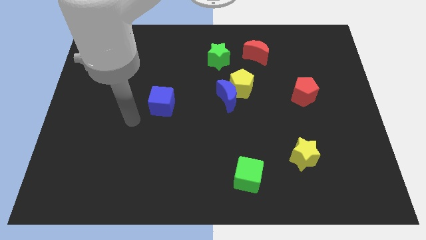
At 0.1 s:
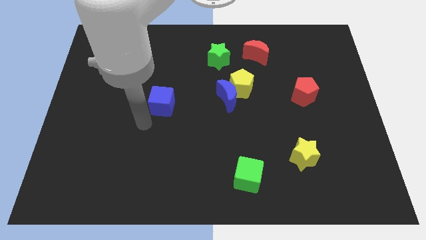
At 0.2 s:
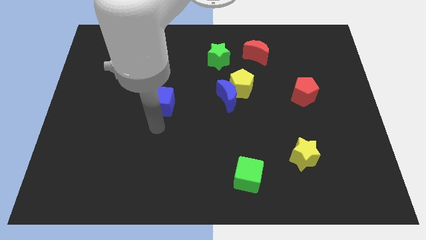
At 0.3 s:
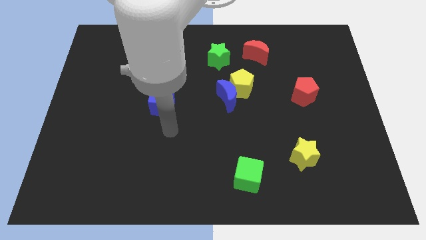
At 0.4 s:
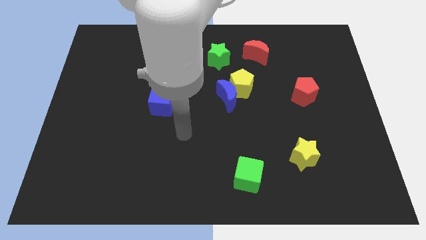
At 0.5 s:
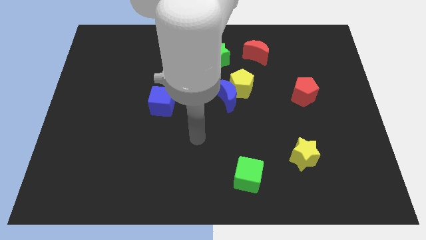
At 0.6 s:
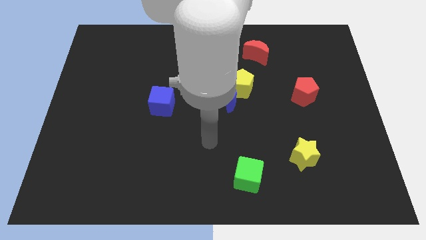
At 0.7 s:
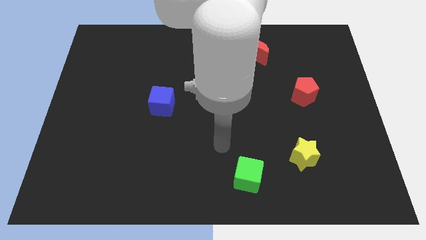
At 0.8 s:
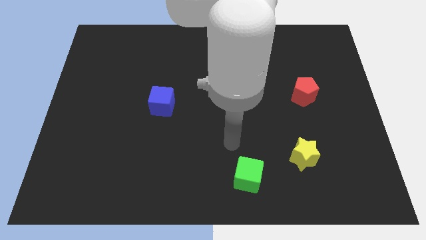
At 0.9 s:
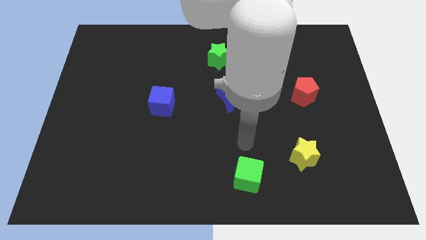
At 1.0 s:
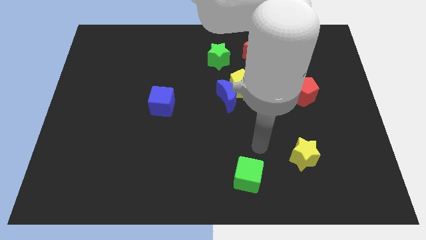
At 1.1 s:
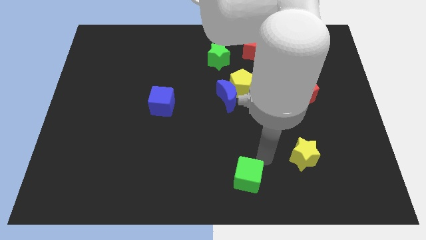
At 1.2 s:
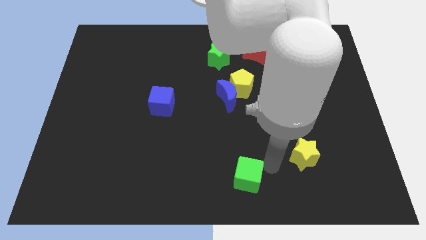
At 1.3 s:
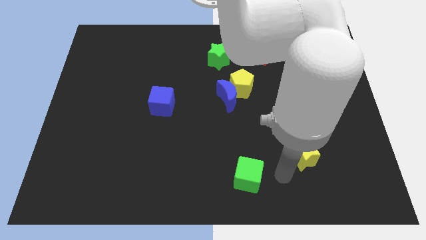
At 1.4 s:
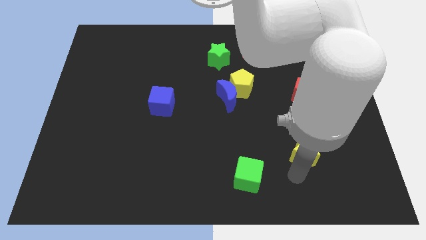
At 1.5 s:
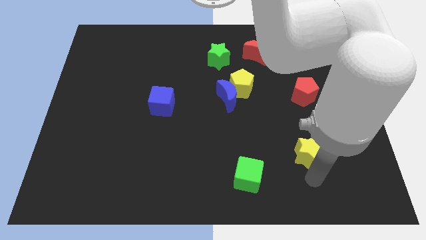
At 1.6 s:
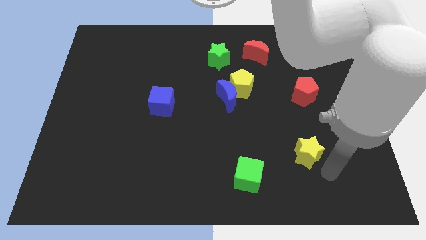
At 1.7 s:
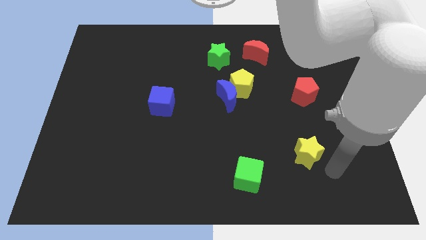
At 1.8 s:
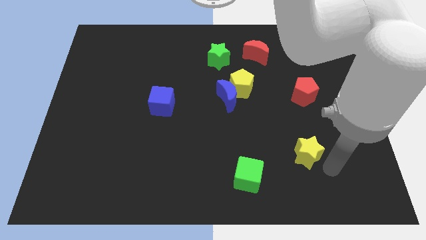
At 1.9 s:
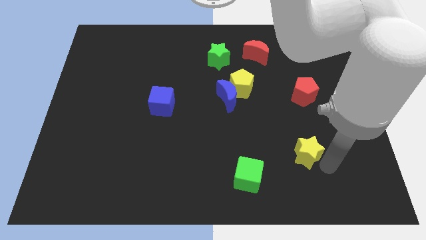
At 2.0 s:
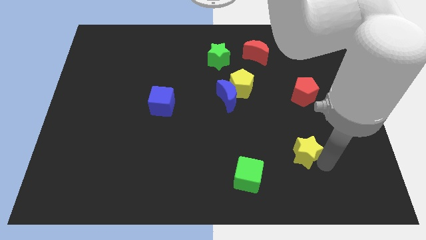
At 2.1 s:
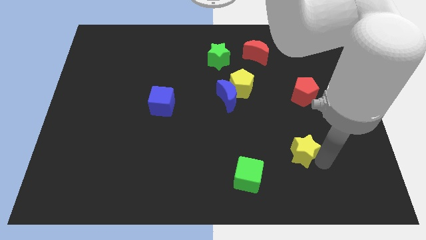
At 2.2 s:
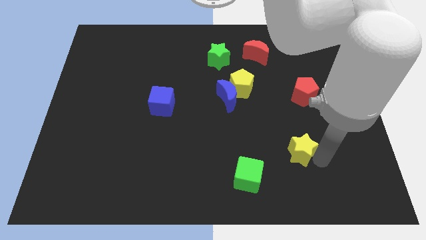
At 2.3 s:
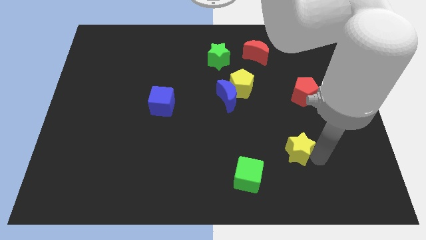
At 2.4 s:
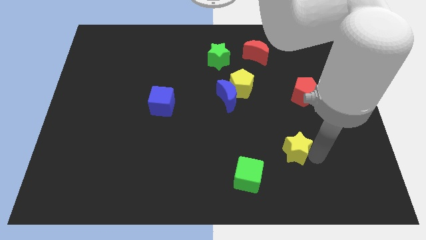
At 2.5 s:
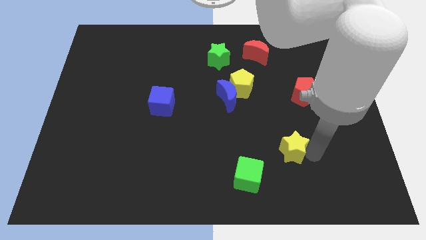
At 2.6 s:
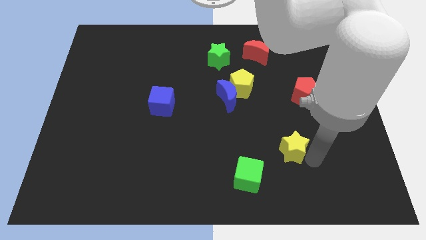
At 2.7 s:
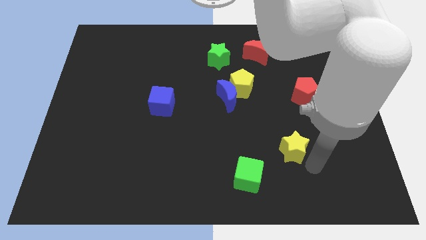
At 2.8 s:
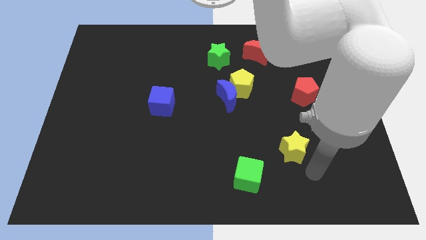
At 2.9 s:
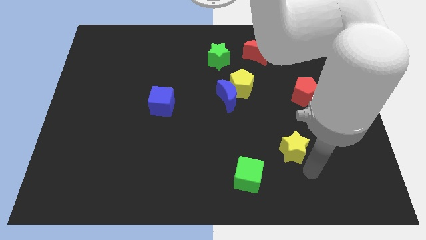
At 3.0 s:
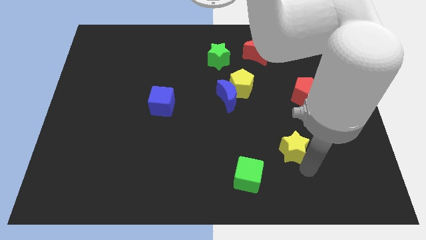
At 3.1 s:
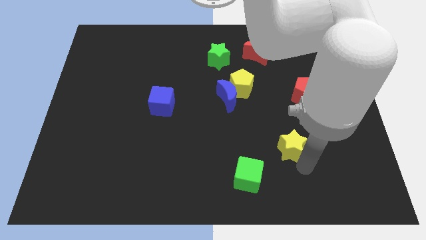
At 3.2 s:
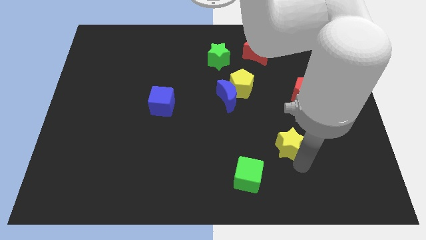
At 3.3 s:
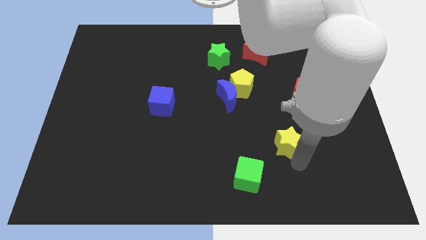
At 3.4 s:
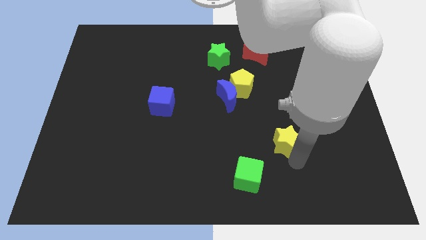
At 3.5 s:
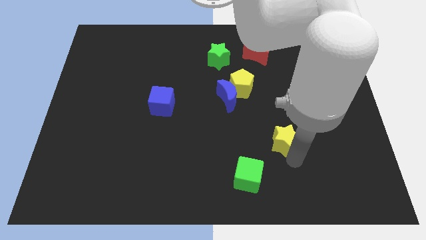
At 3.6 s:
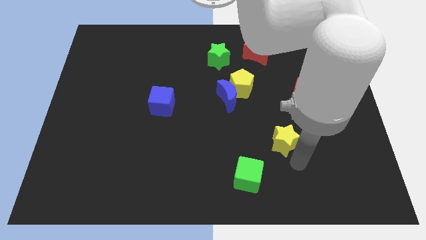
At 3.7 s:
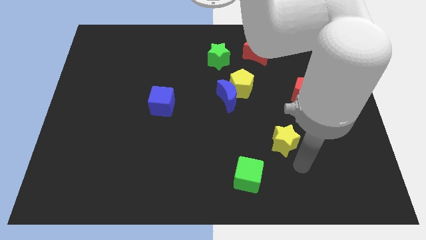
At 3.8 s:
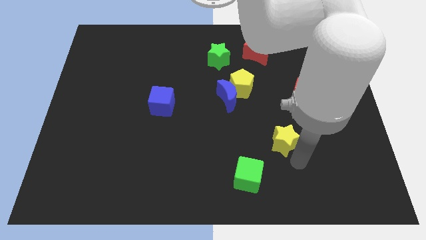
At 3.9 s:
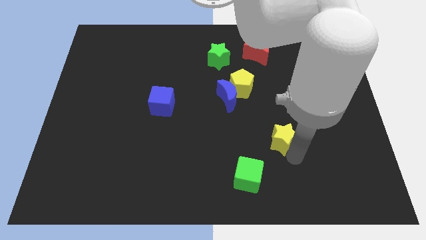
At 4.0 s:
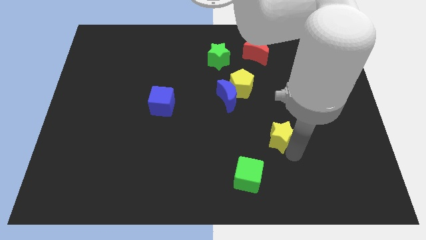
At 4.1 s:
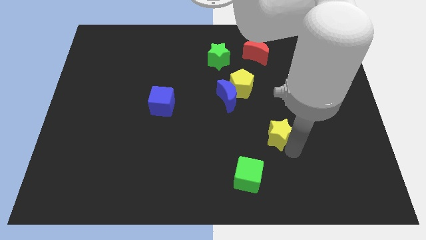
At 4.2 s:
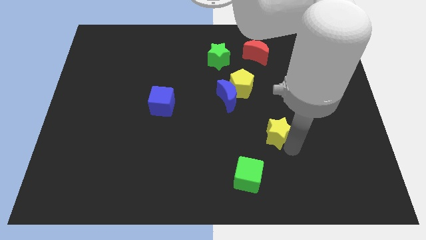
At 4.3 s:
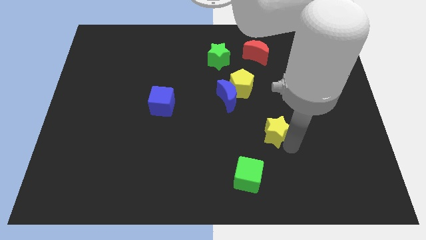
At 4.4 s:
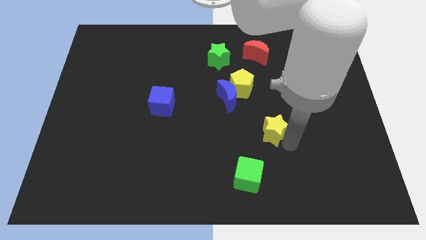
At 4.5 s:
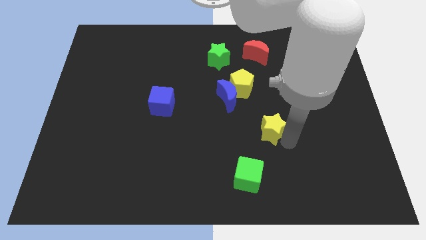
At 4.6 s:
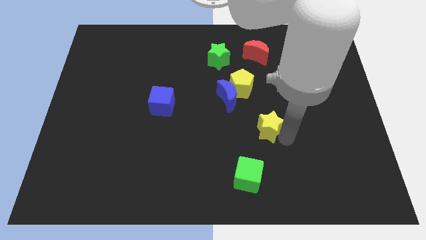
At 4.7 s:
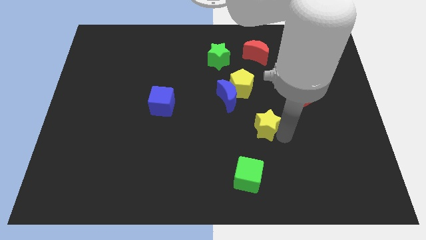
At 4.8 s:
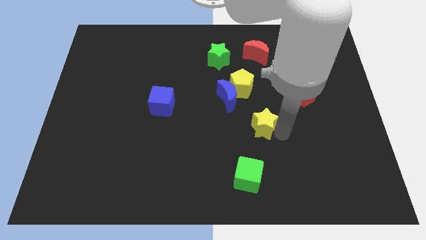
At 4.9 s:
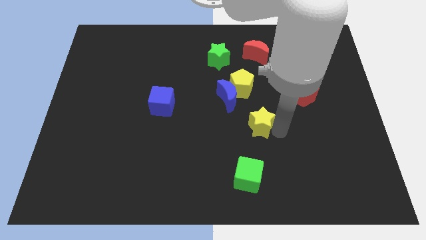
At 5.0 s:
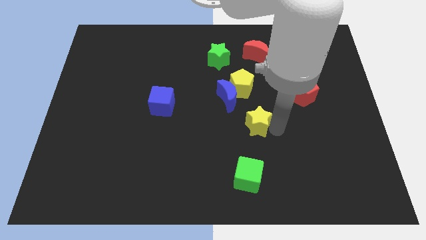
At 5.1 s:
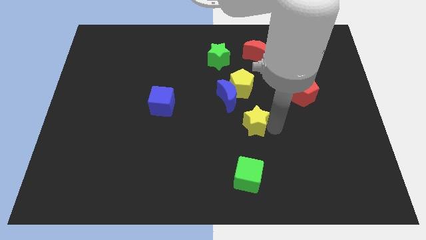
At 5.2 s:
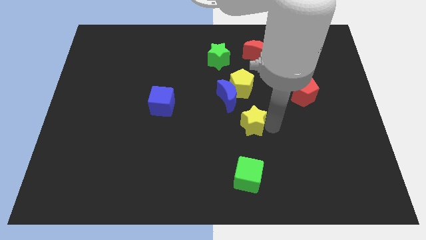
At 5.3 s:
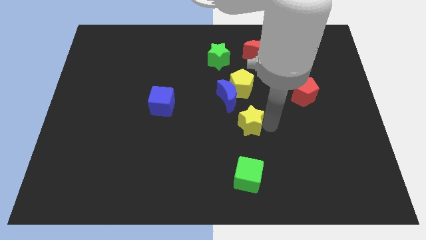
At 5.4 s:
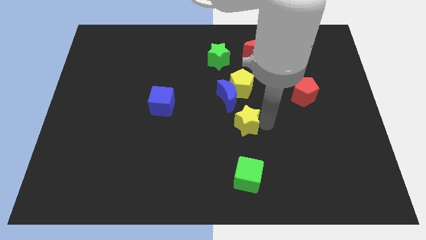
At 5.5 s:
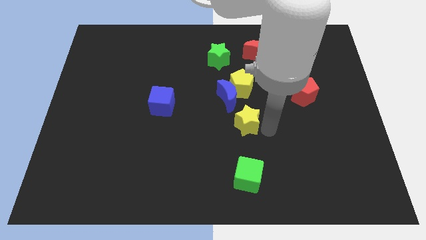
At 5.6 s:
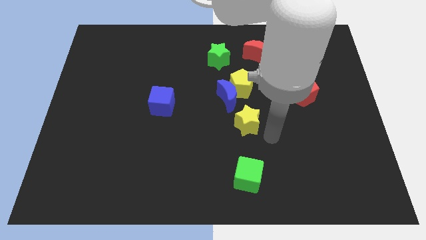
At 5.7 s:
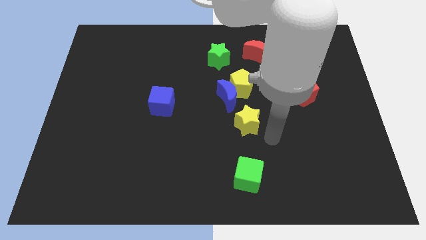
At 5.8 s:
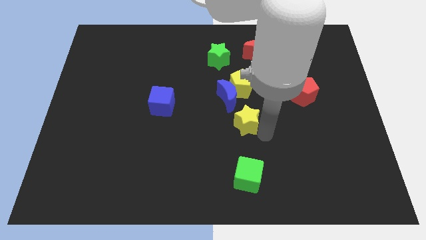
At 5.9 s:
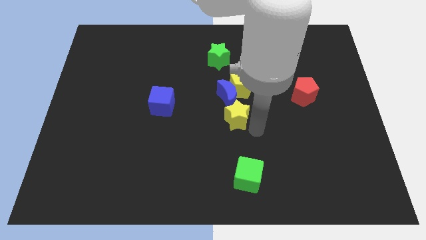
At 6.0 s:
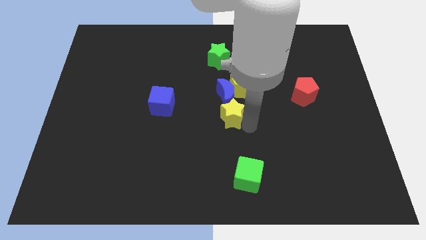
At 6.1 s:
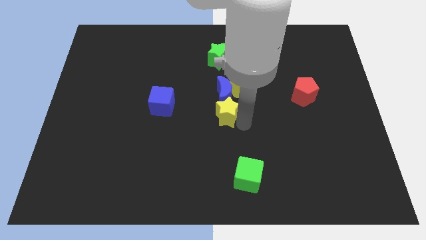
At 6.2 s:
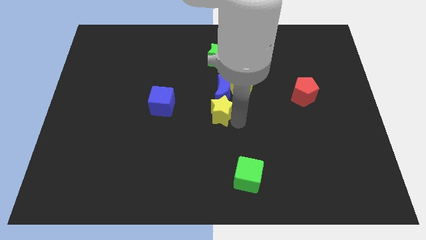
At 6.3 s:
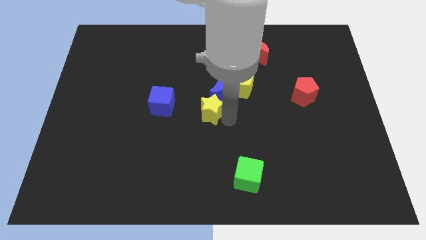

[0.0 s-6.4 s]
slide the yellow star up and to the left diagonally

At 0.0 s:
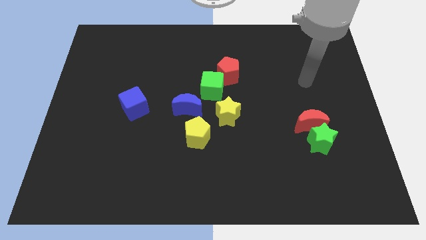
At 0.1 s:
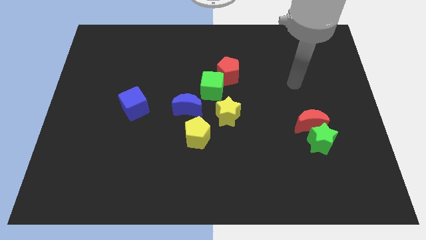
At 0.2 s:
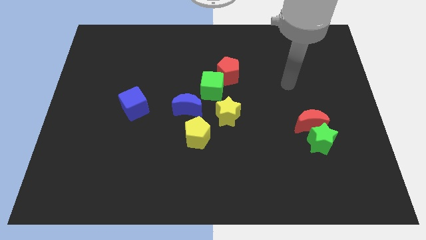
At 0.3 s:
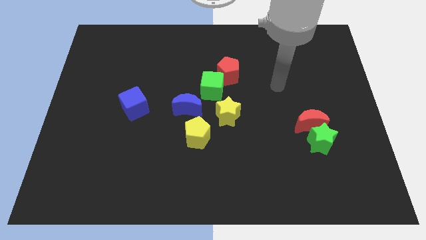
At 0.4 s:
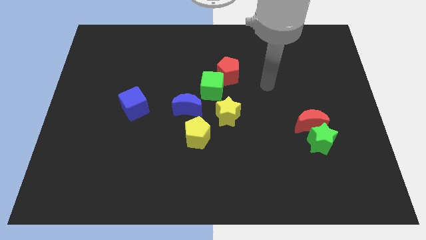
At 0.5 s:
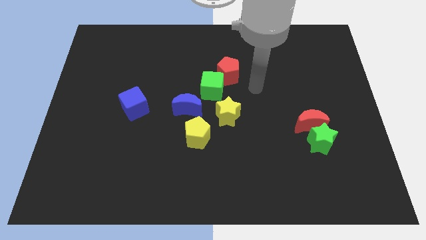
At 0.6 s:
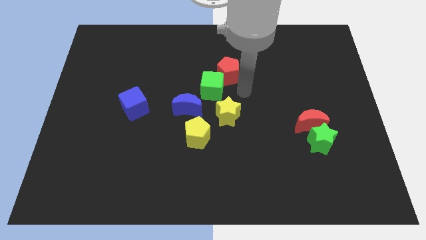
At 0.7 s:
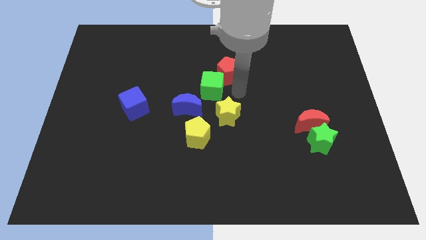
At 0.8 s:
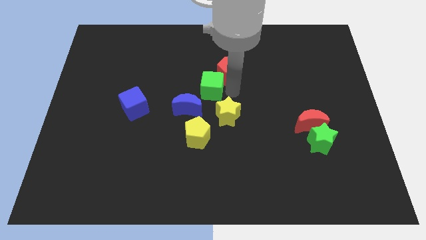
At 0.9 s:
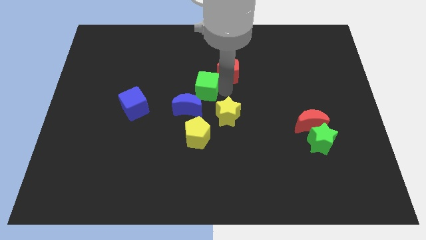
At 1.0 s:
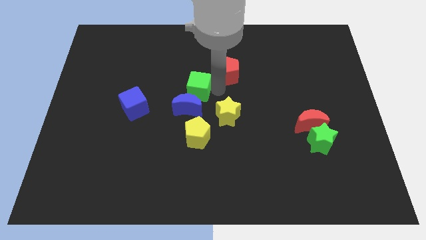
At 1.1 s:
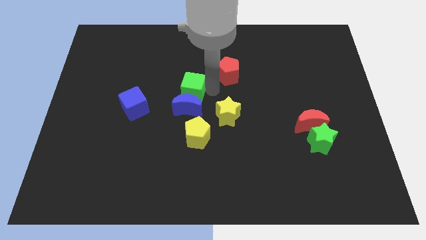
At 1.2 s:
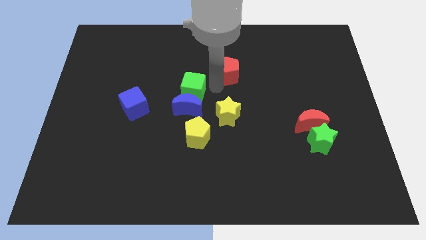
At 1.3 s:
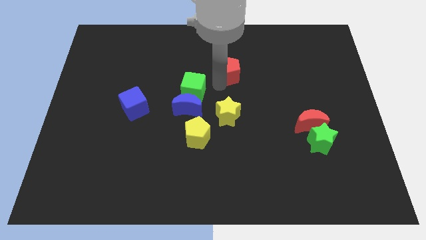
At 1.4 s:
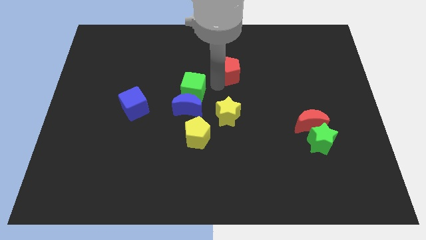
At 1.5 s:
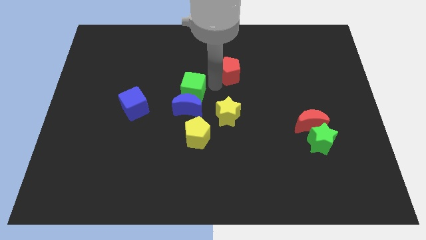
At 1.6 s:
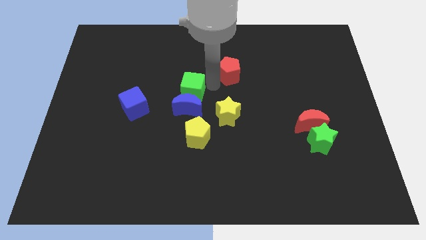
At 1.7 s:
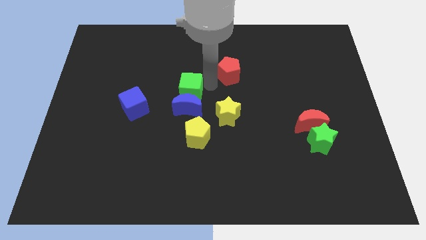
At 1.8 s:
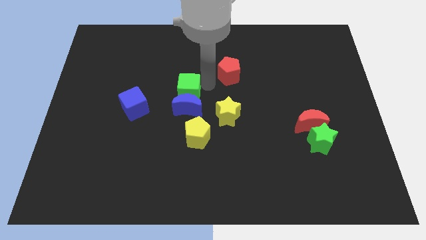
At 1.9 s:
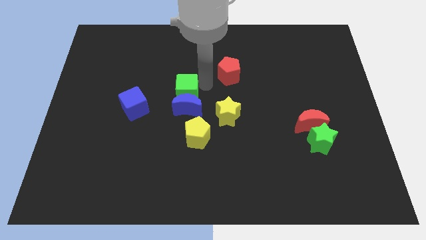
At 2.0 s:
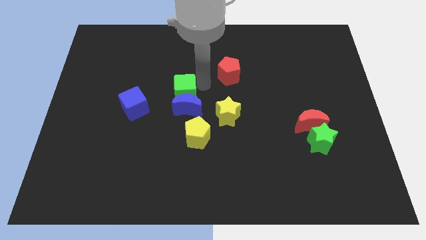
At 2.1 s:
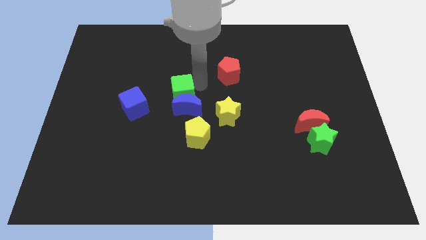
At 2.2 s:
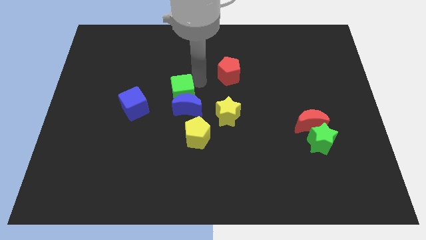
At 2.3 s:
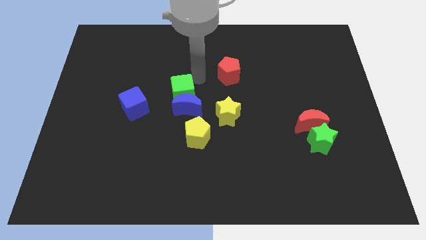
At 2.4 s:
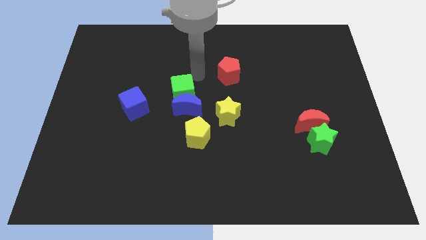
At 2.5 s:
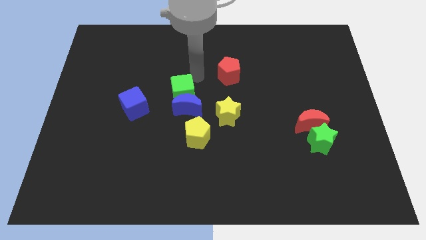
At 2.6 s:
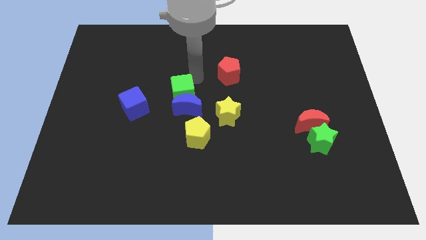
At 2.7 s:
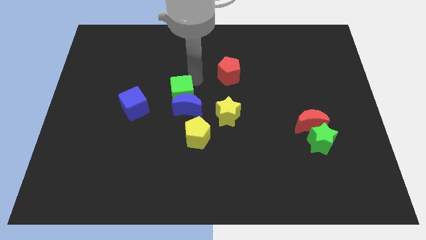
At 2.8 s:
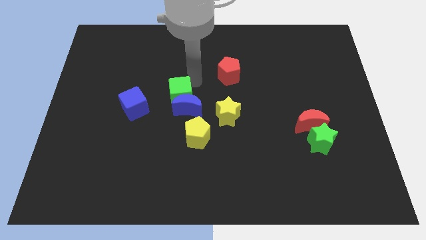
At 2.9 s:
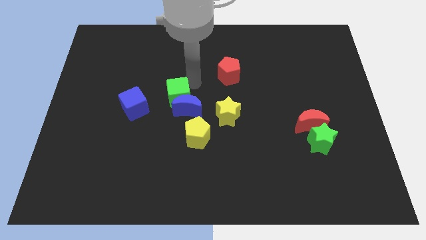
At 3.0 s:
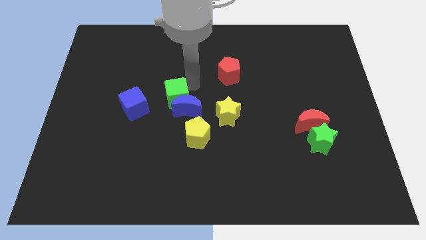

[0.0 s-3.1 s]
slide the green cube a little downwards and to the left diagonally
